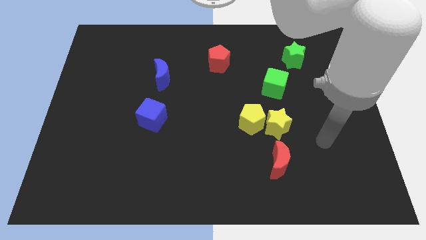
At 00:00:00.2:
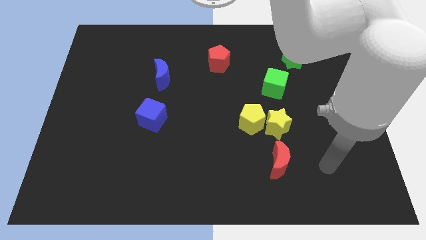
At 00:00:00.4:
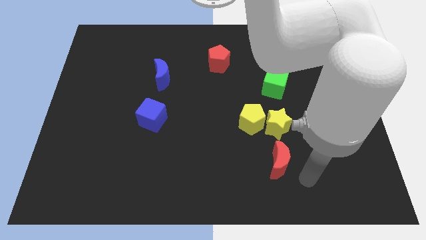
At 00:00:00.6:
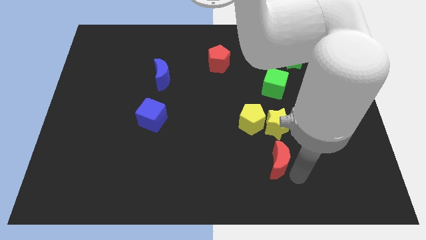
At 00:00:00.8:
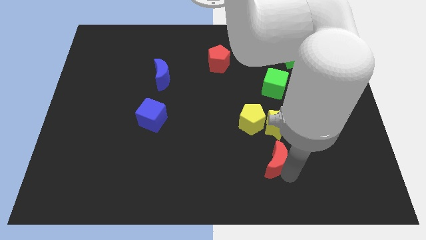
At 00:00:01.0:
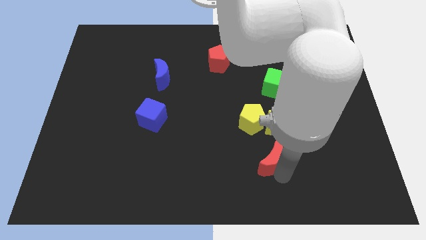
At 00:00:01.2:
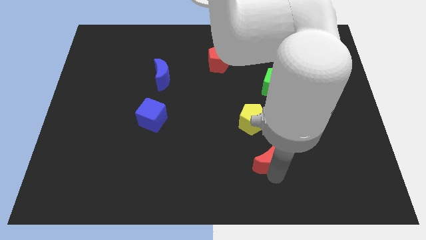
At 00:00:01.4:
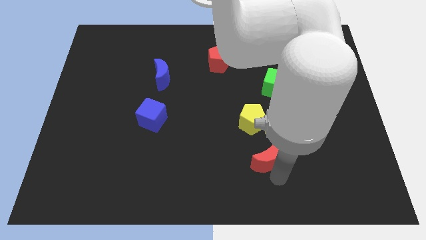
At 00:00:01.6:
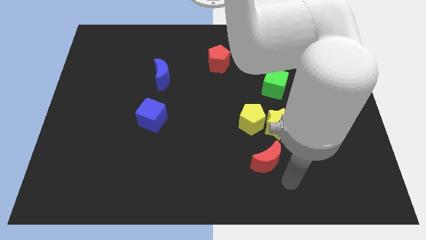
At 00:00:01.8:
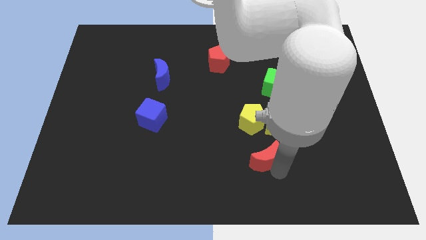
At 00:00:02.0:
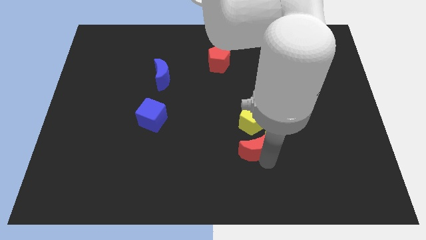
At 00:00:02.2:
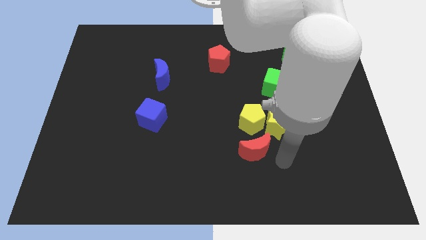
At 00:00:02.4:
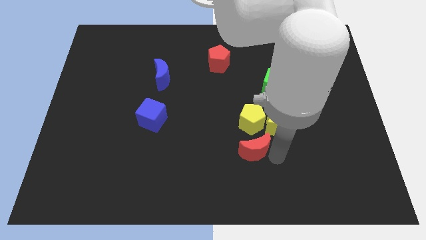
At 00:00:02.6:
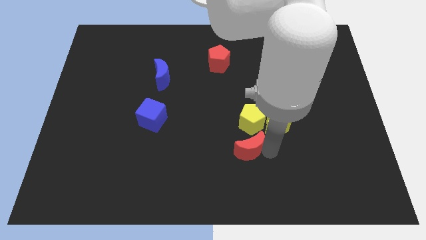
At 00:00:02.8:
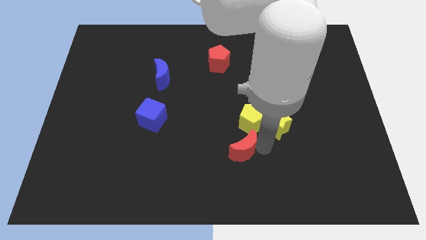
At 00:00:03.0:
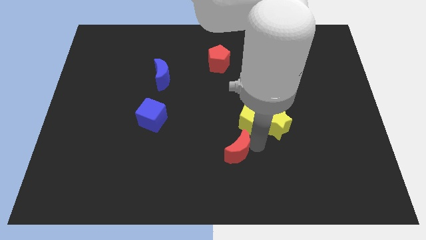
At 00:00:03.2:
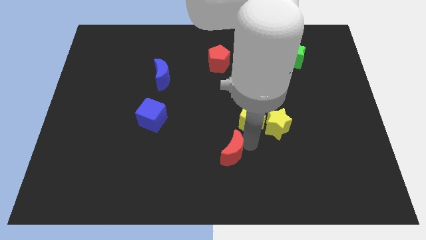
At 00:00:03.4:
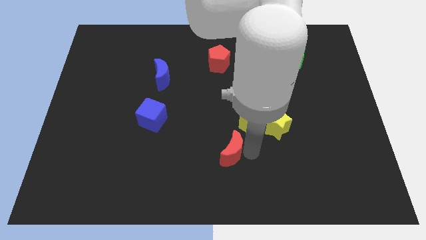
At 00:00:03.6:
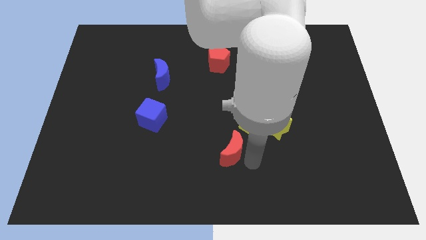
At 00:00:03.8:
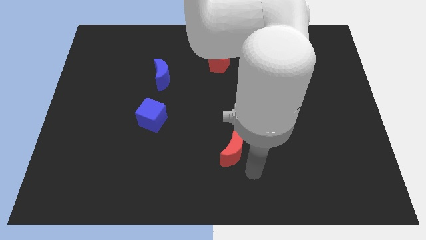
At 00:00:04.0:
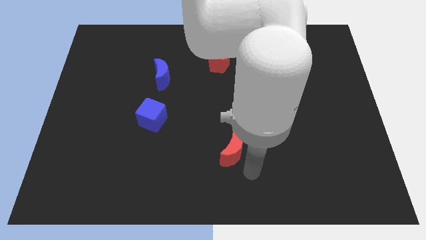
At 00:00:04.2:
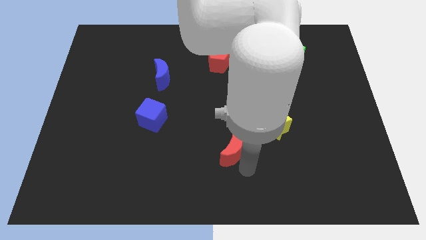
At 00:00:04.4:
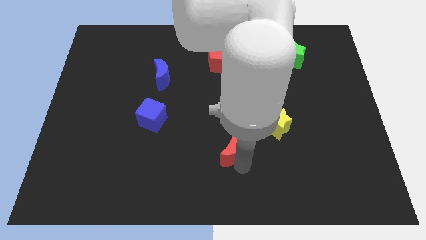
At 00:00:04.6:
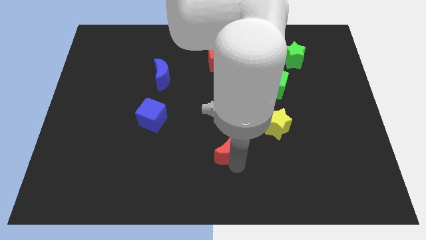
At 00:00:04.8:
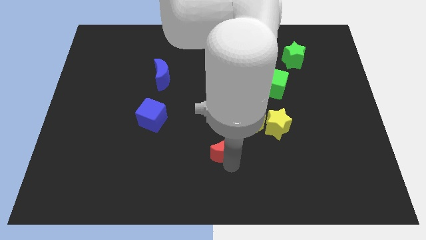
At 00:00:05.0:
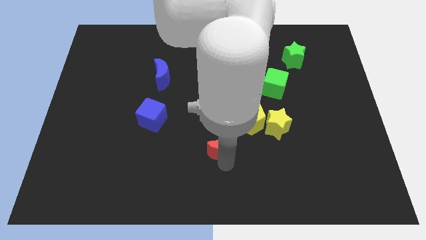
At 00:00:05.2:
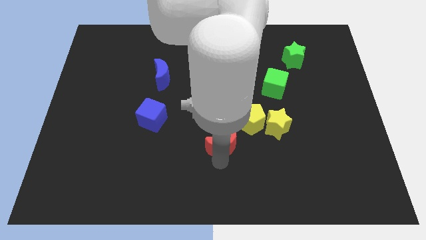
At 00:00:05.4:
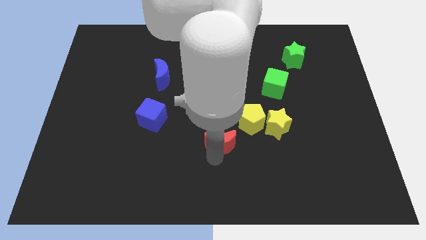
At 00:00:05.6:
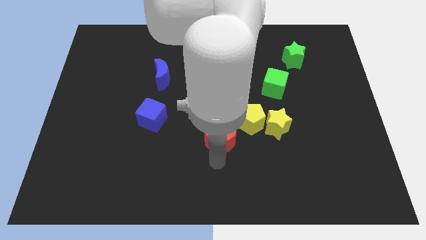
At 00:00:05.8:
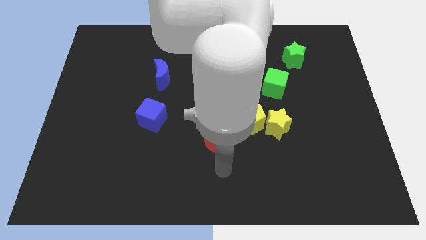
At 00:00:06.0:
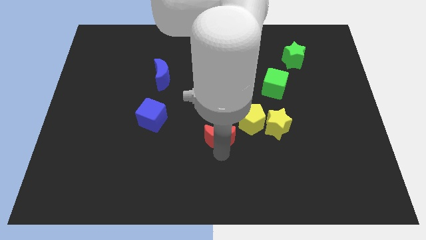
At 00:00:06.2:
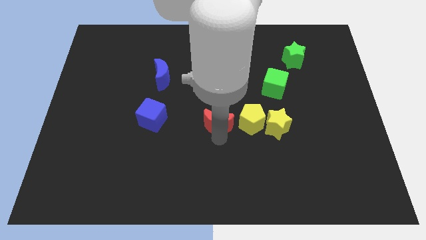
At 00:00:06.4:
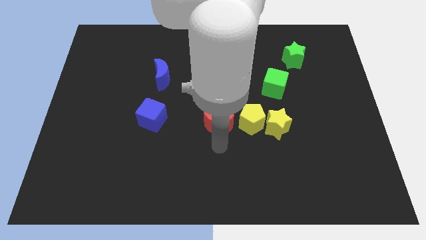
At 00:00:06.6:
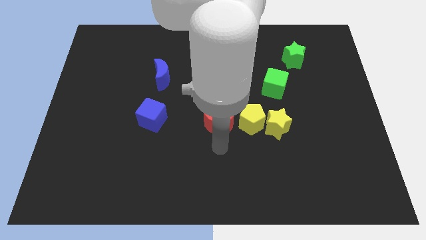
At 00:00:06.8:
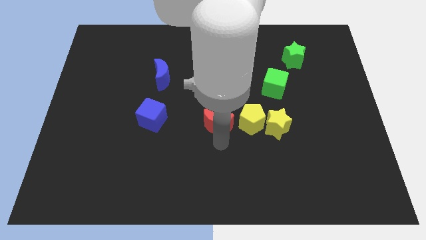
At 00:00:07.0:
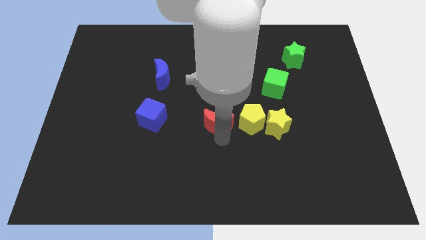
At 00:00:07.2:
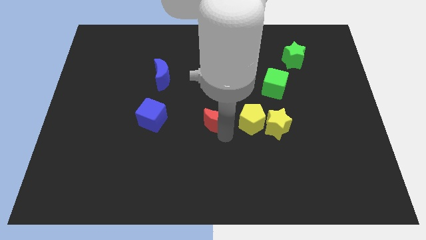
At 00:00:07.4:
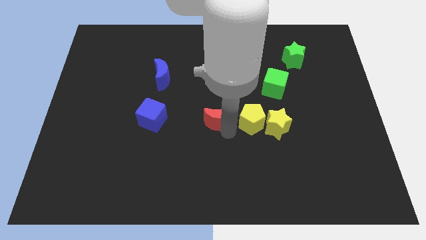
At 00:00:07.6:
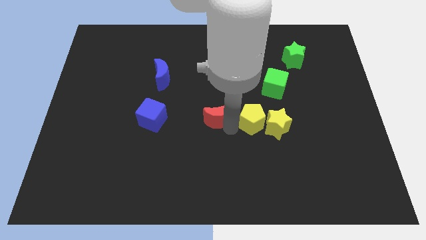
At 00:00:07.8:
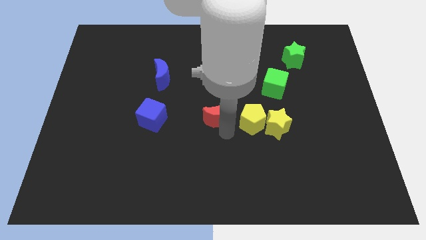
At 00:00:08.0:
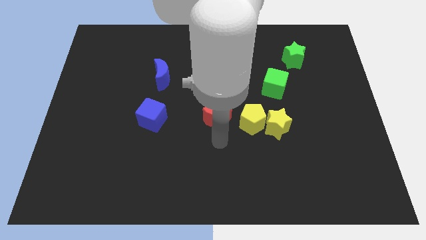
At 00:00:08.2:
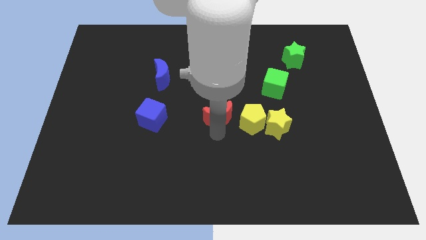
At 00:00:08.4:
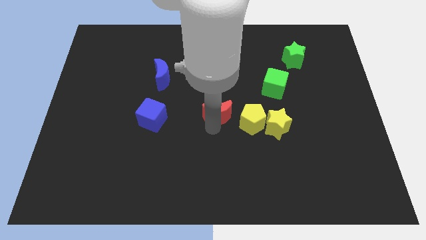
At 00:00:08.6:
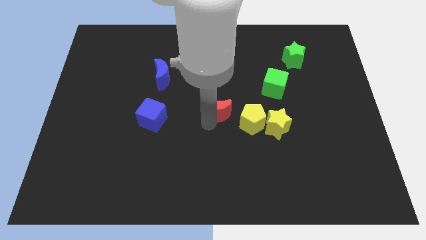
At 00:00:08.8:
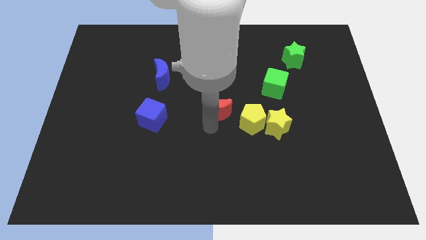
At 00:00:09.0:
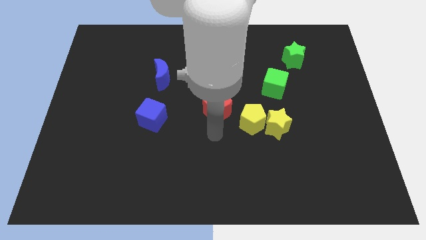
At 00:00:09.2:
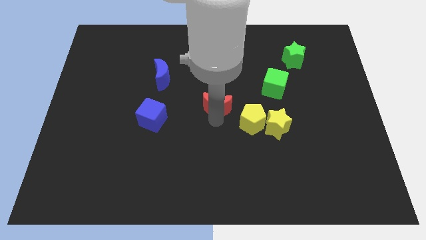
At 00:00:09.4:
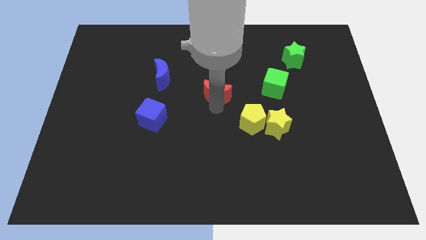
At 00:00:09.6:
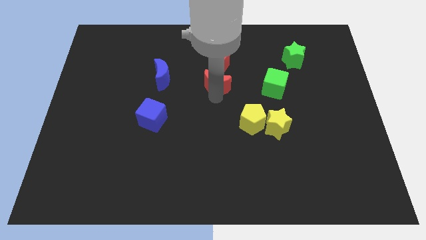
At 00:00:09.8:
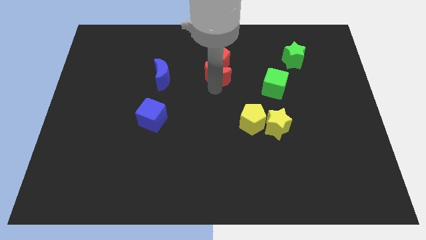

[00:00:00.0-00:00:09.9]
put the red moon towards the red pentagon

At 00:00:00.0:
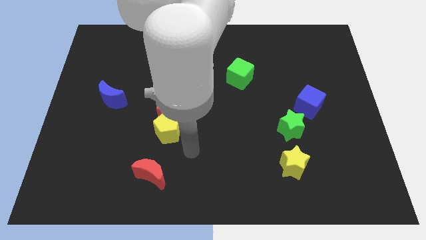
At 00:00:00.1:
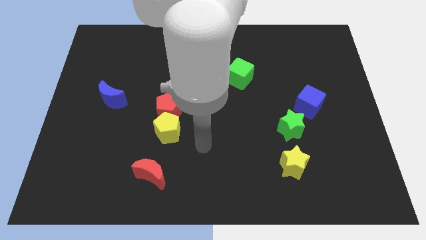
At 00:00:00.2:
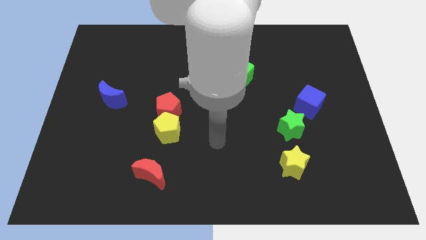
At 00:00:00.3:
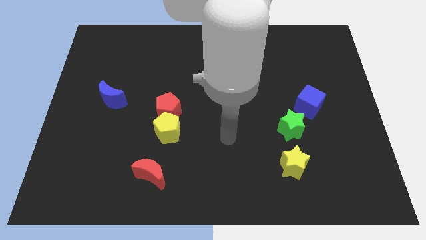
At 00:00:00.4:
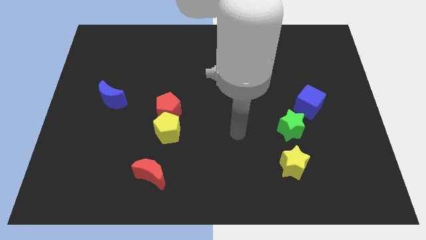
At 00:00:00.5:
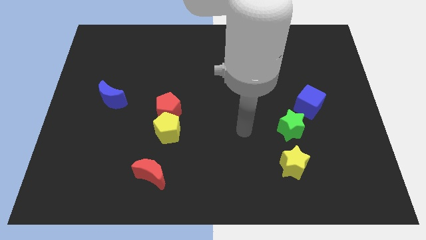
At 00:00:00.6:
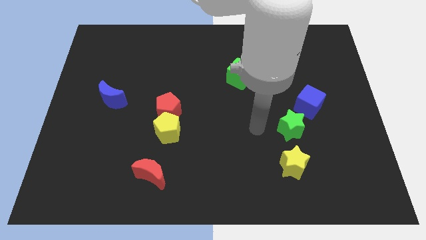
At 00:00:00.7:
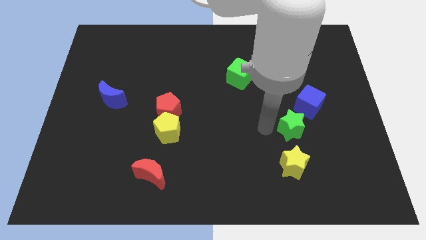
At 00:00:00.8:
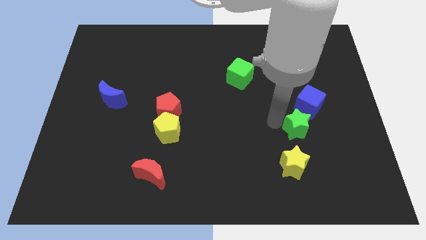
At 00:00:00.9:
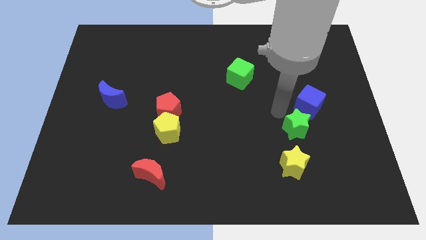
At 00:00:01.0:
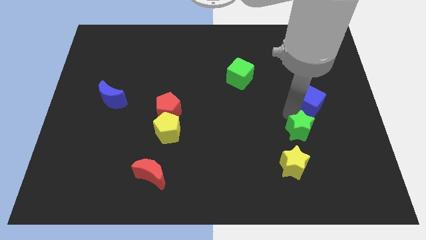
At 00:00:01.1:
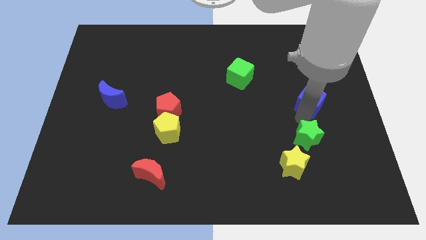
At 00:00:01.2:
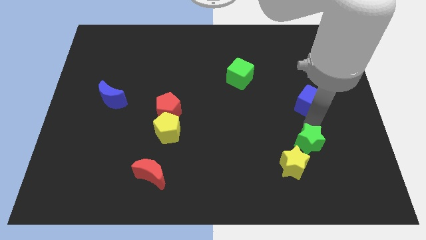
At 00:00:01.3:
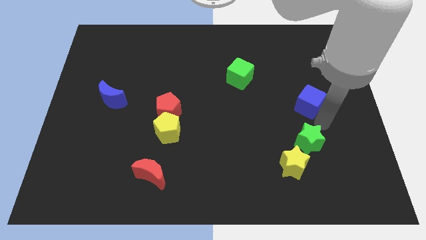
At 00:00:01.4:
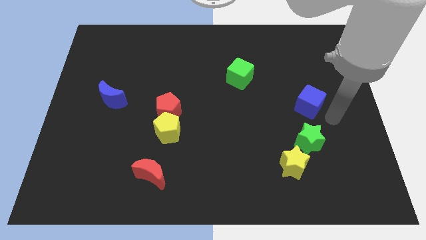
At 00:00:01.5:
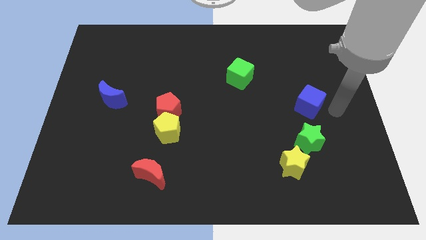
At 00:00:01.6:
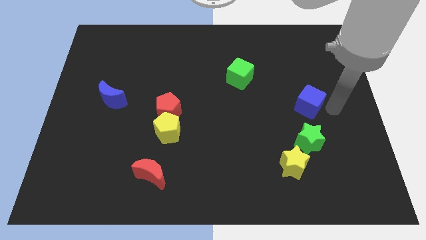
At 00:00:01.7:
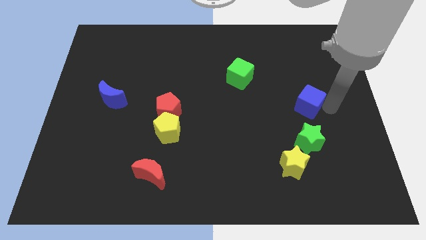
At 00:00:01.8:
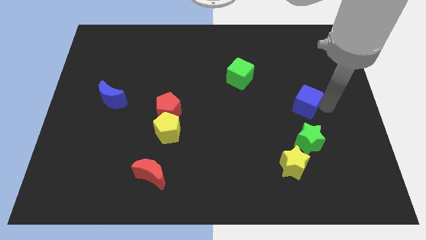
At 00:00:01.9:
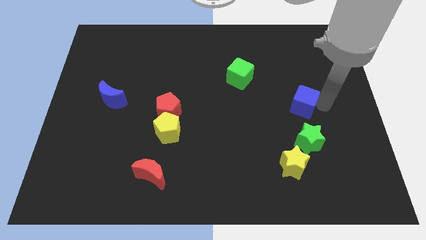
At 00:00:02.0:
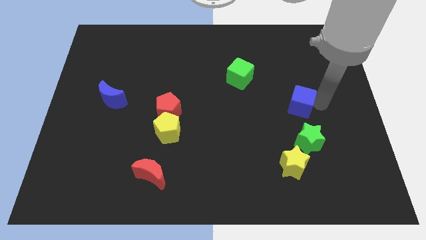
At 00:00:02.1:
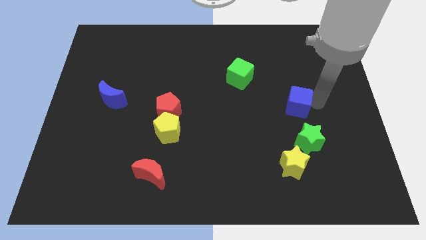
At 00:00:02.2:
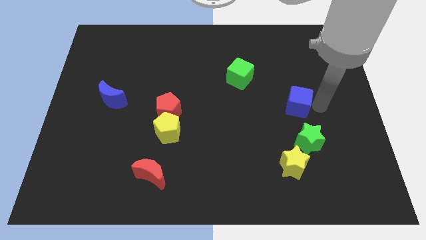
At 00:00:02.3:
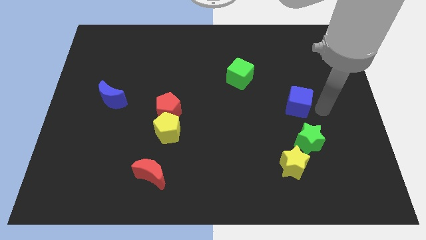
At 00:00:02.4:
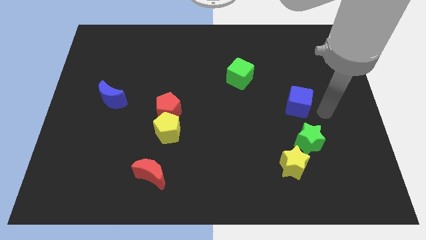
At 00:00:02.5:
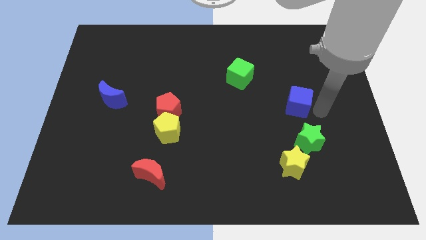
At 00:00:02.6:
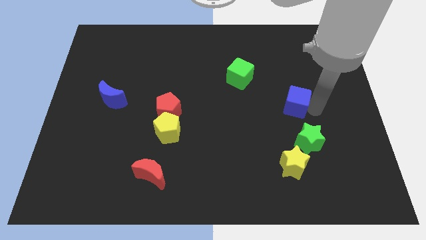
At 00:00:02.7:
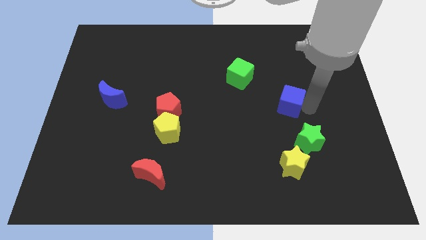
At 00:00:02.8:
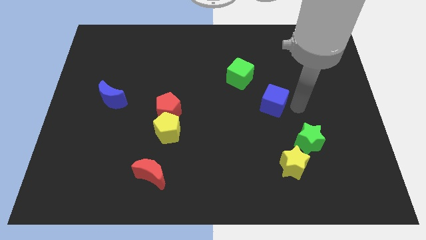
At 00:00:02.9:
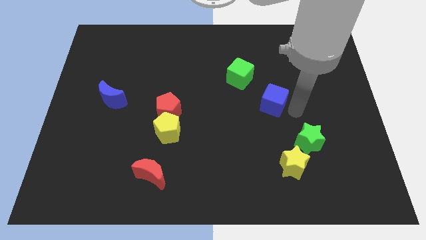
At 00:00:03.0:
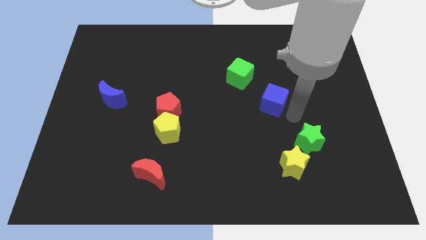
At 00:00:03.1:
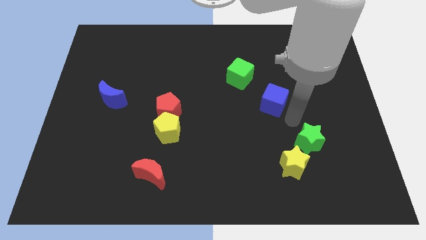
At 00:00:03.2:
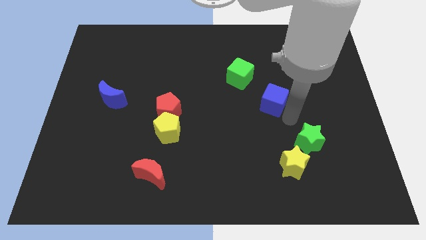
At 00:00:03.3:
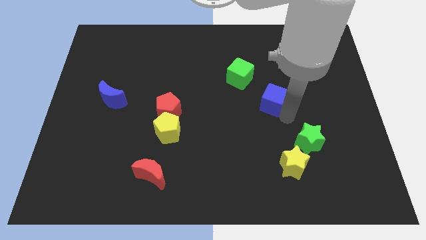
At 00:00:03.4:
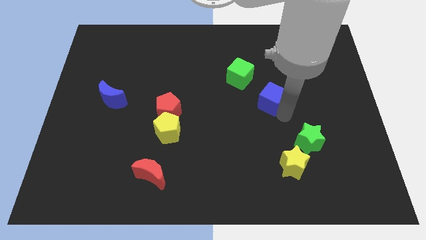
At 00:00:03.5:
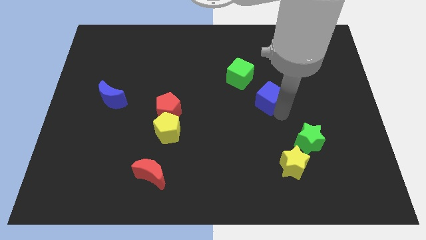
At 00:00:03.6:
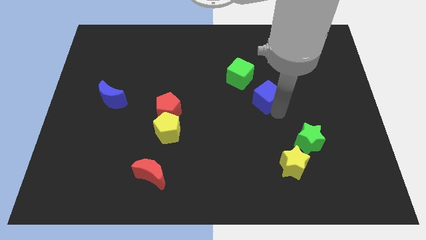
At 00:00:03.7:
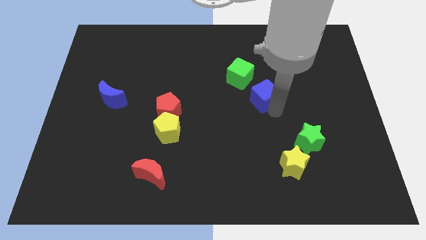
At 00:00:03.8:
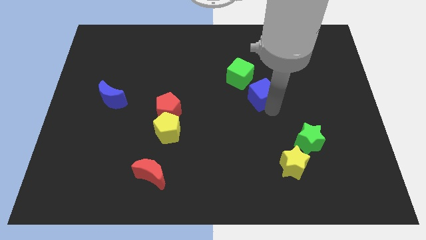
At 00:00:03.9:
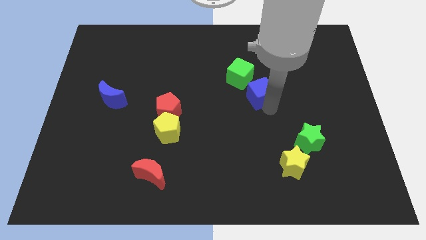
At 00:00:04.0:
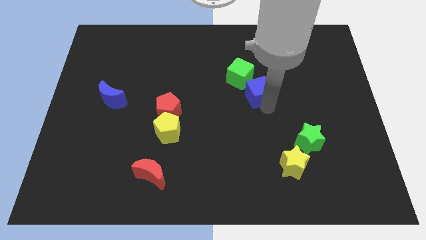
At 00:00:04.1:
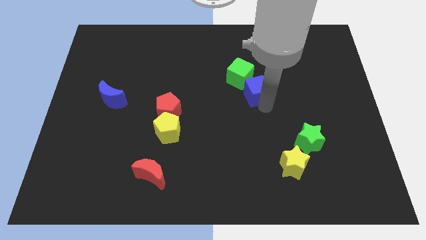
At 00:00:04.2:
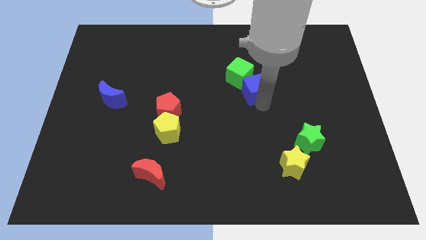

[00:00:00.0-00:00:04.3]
move the blue cube towards the green cube
